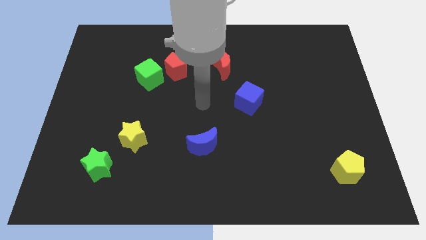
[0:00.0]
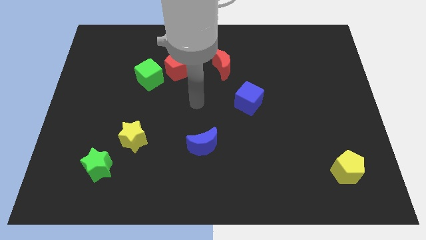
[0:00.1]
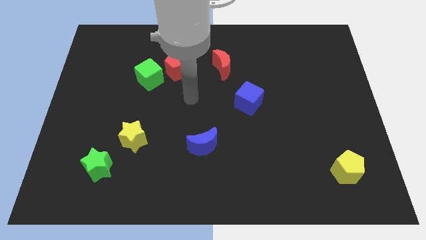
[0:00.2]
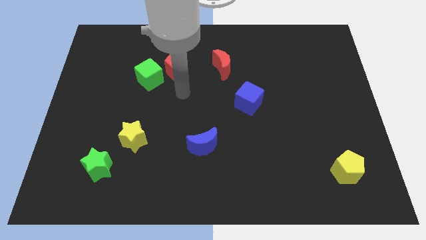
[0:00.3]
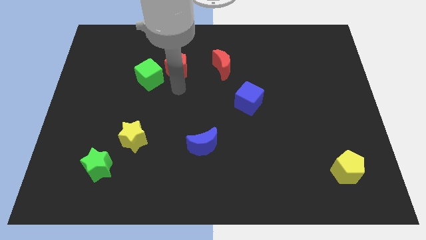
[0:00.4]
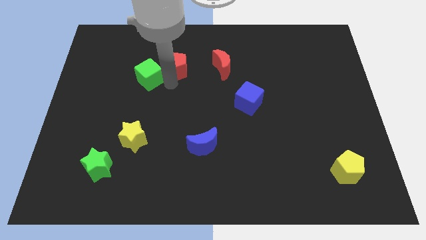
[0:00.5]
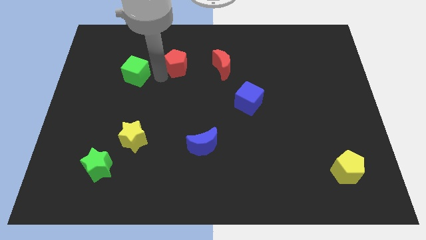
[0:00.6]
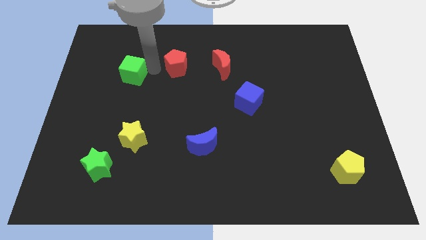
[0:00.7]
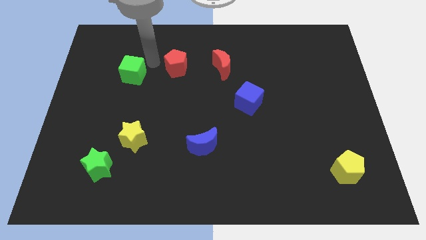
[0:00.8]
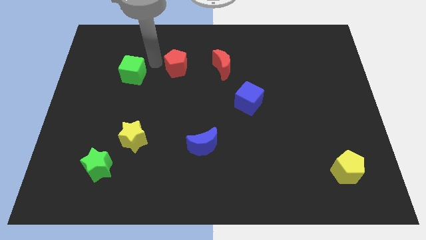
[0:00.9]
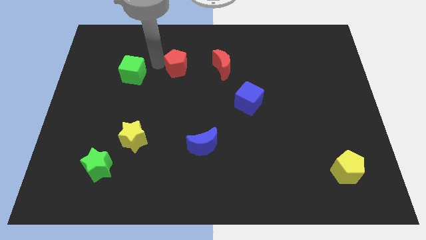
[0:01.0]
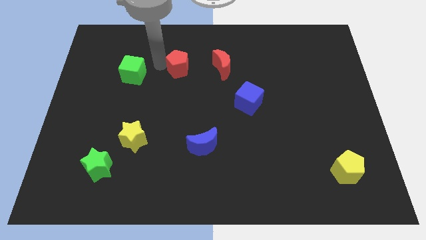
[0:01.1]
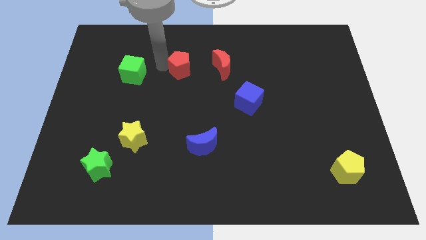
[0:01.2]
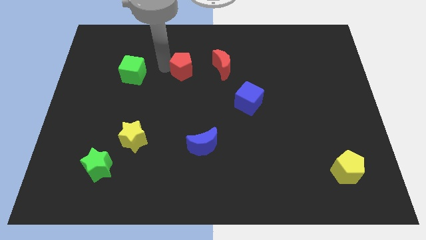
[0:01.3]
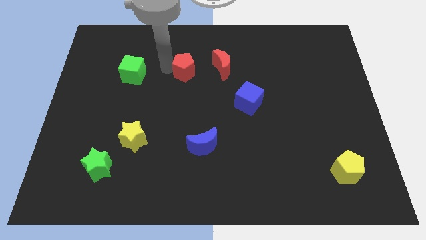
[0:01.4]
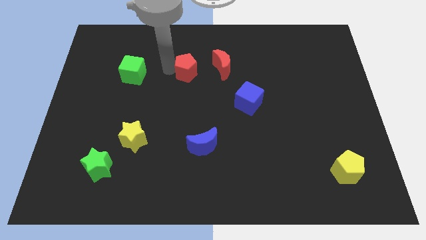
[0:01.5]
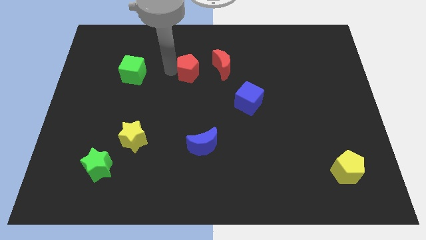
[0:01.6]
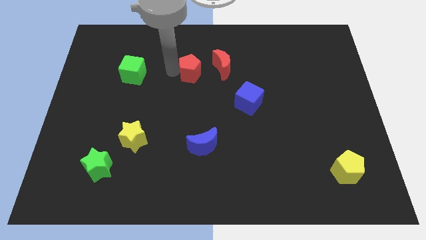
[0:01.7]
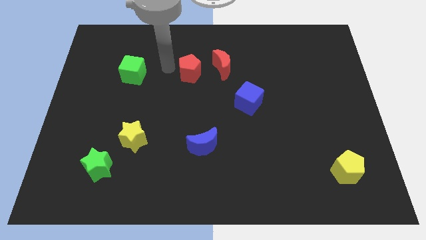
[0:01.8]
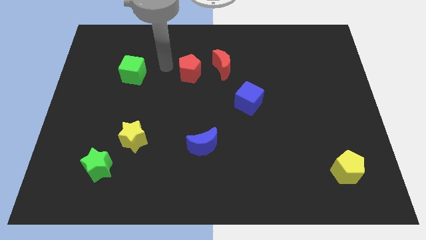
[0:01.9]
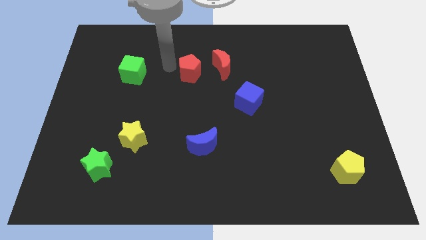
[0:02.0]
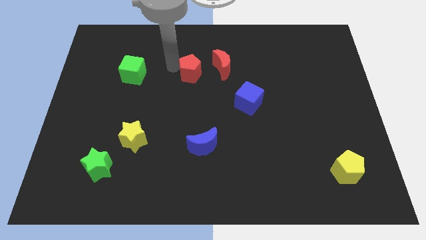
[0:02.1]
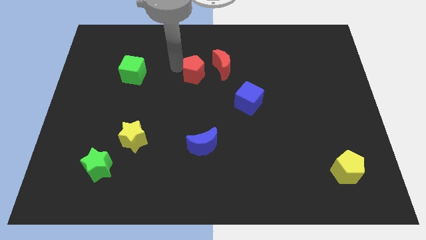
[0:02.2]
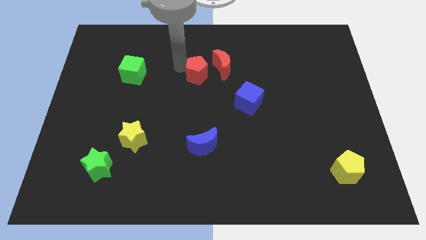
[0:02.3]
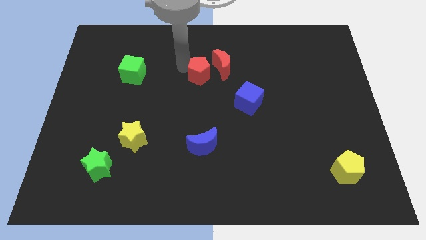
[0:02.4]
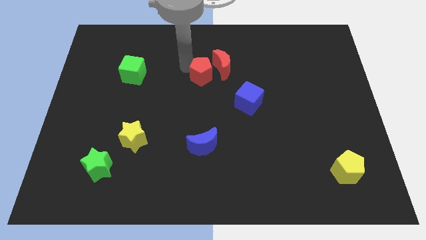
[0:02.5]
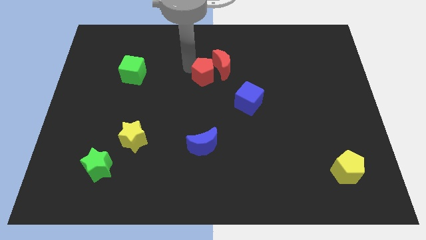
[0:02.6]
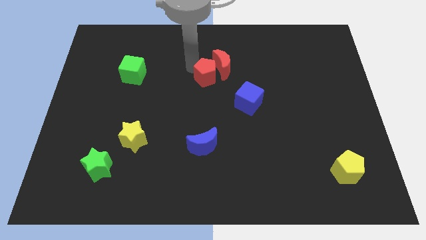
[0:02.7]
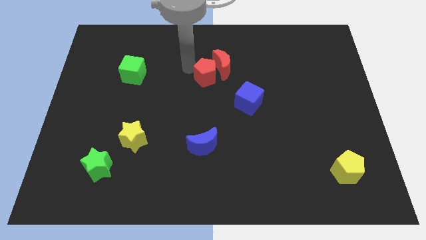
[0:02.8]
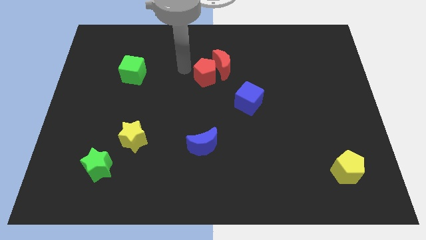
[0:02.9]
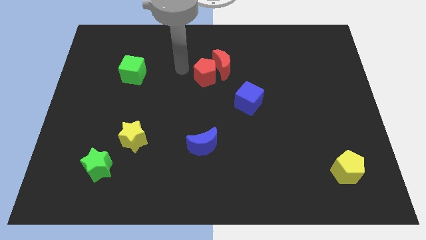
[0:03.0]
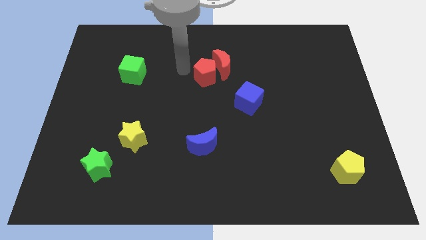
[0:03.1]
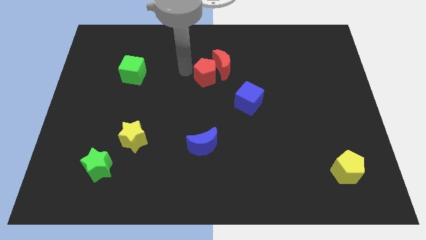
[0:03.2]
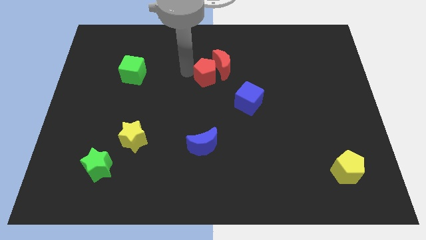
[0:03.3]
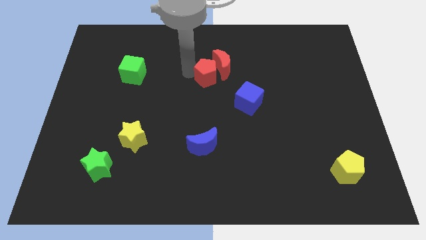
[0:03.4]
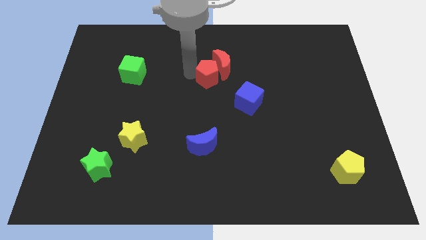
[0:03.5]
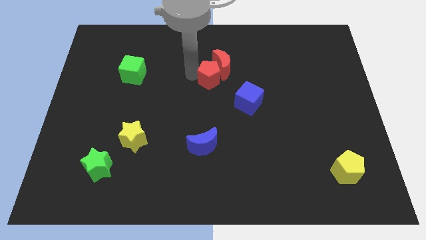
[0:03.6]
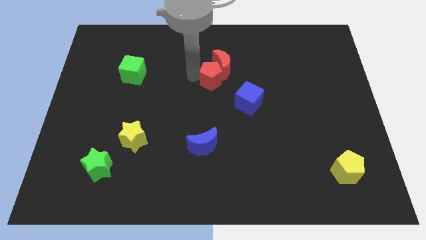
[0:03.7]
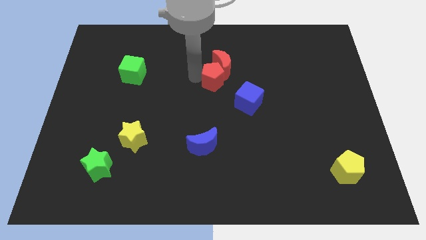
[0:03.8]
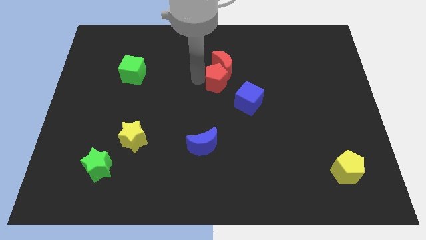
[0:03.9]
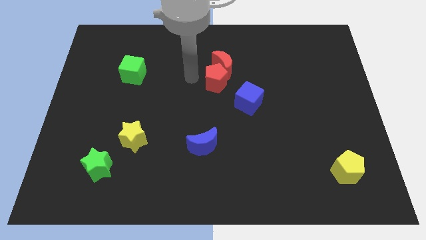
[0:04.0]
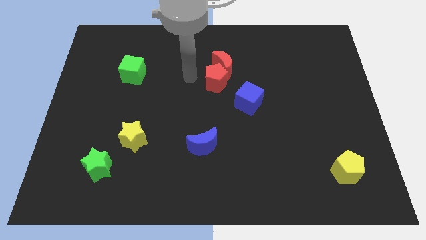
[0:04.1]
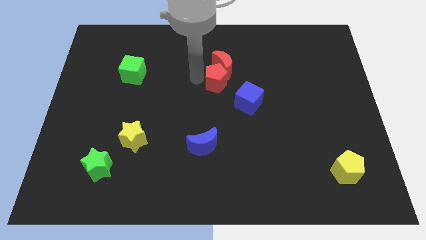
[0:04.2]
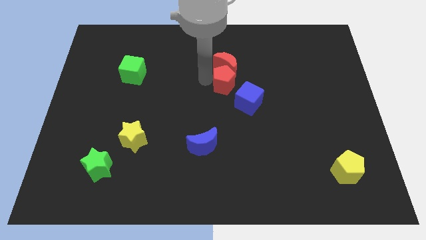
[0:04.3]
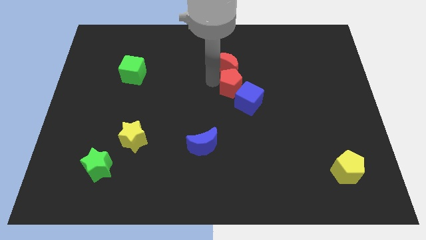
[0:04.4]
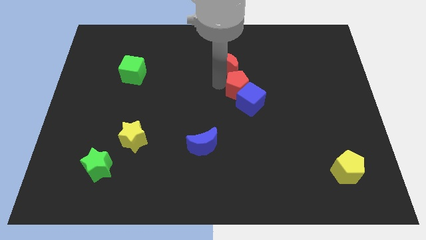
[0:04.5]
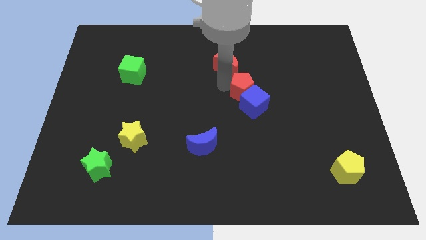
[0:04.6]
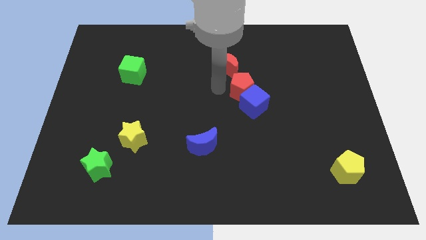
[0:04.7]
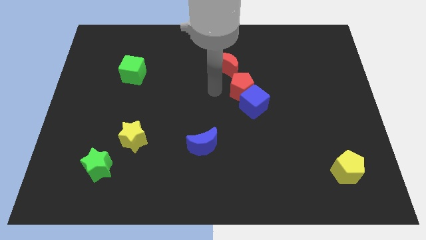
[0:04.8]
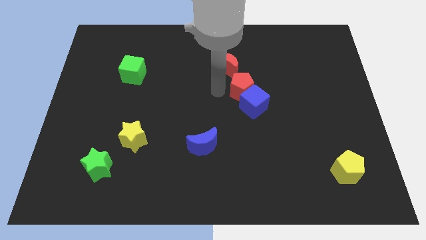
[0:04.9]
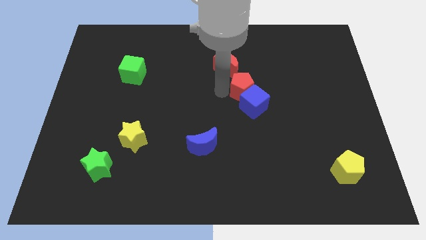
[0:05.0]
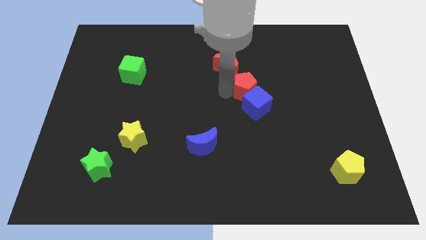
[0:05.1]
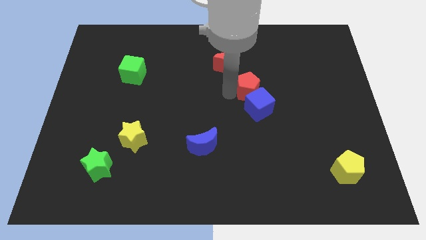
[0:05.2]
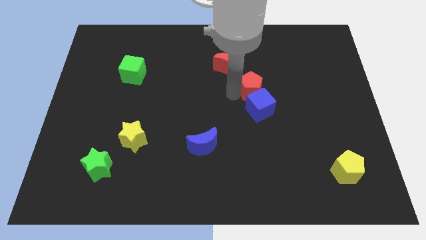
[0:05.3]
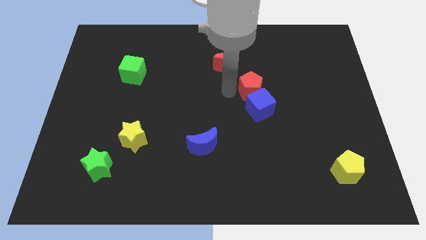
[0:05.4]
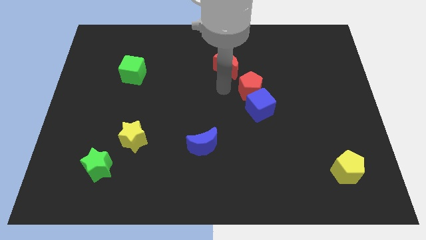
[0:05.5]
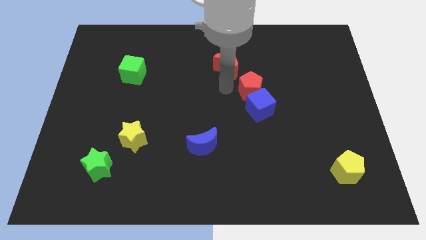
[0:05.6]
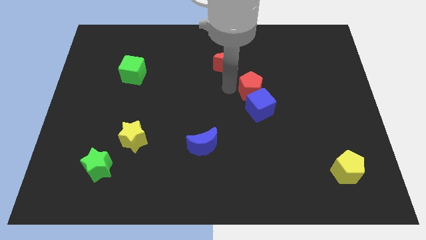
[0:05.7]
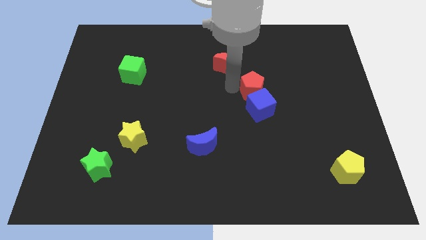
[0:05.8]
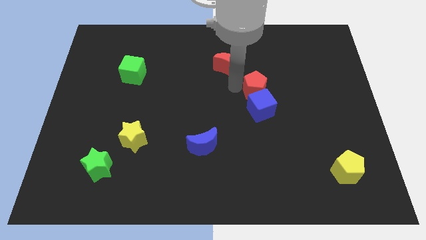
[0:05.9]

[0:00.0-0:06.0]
slide the red pentagon diagonally up and to the right of the blue cube

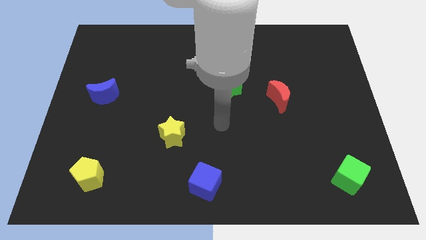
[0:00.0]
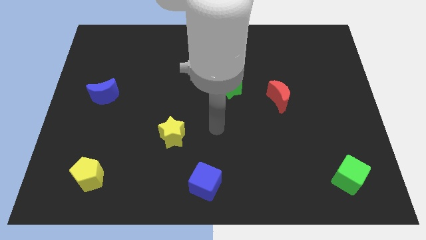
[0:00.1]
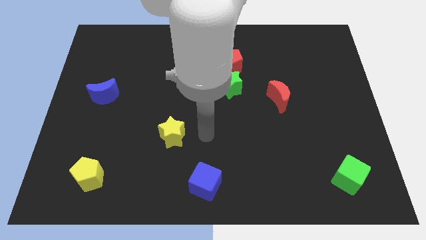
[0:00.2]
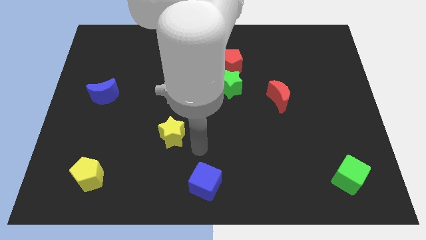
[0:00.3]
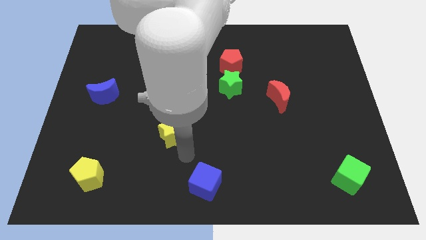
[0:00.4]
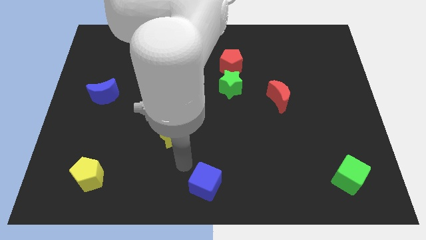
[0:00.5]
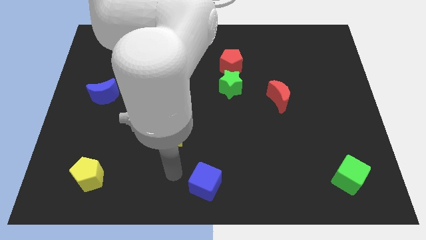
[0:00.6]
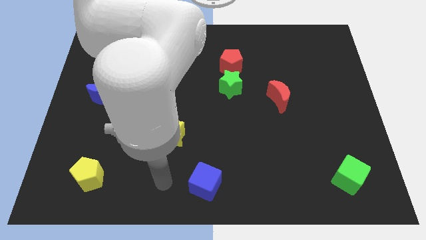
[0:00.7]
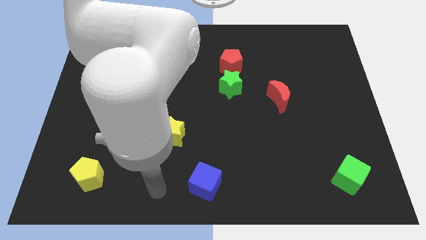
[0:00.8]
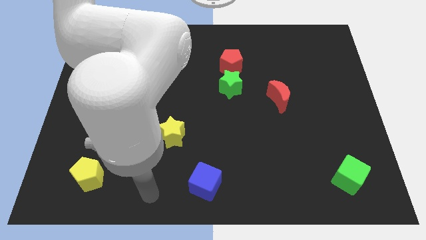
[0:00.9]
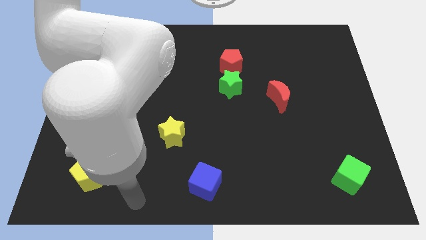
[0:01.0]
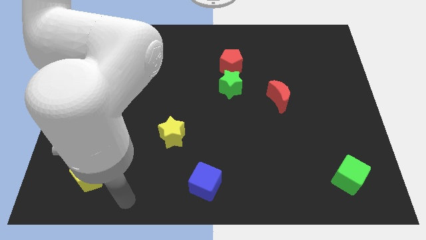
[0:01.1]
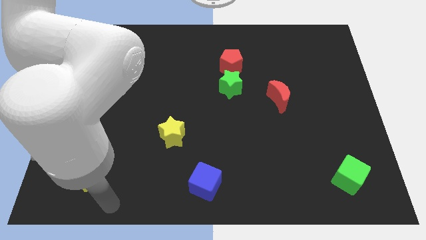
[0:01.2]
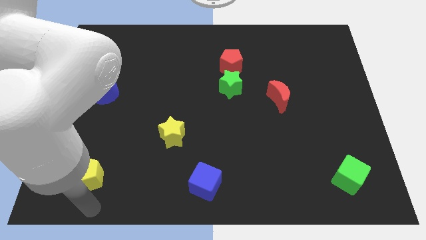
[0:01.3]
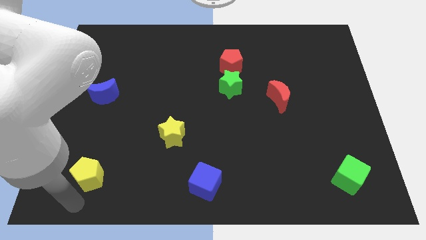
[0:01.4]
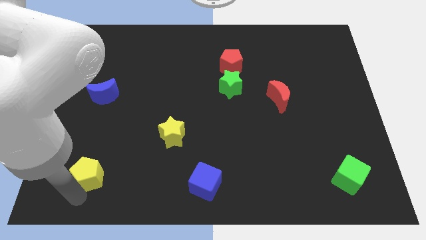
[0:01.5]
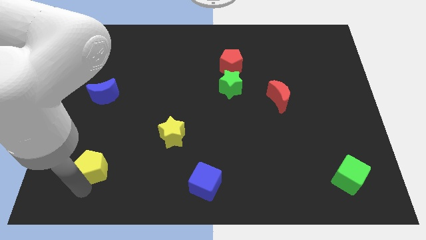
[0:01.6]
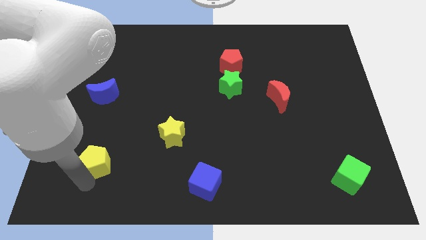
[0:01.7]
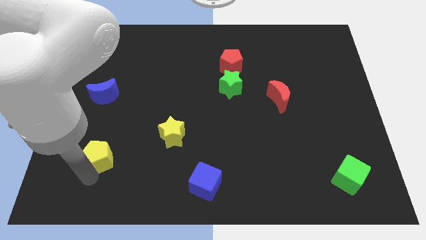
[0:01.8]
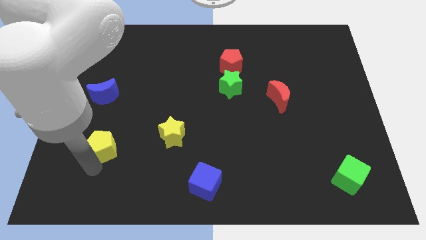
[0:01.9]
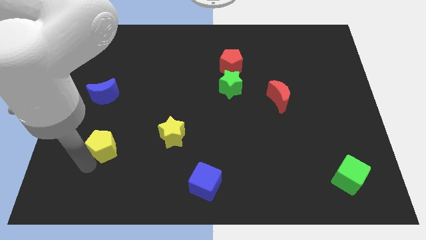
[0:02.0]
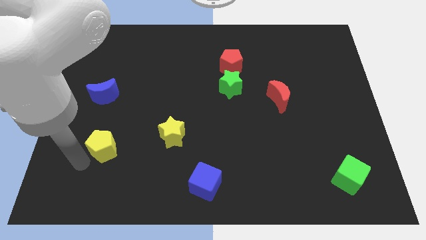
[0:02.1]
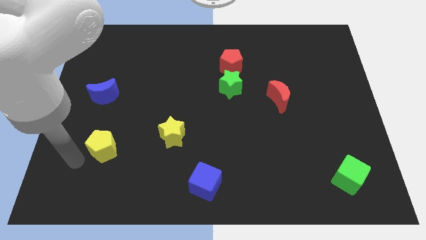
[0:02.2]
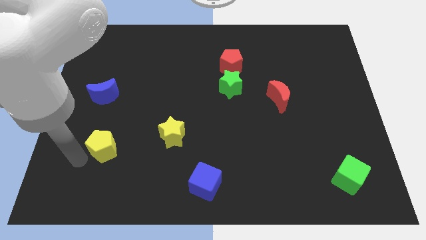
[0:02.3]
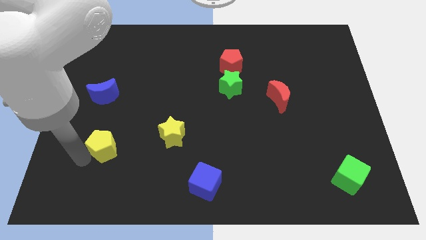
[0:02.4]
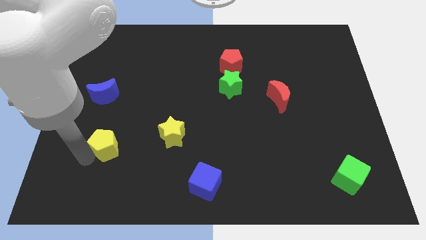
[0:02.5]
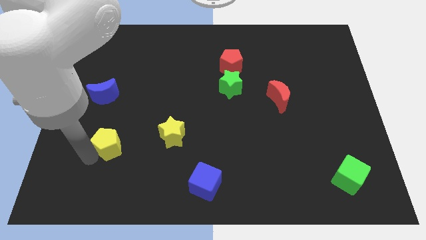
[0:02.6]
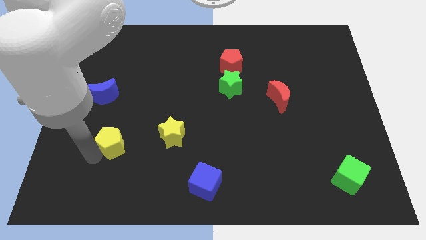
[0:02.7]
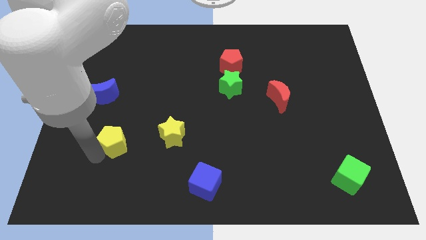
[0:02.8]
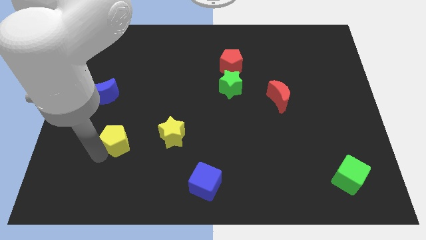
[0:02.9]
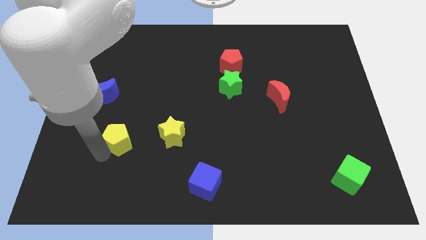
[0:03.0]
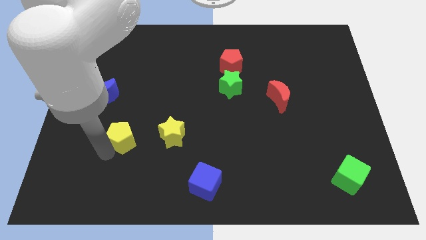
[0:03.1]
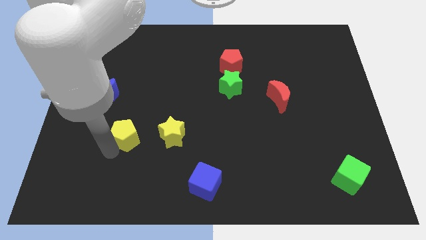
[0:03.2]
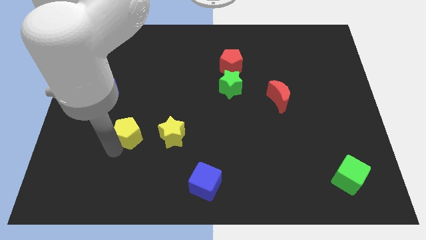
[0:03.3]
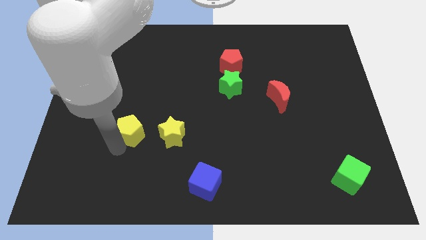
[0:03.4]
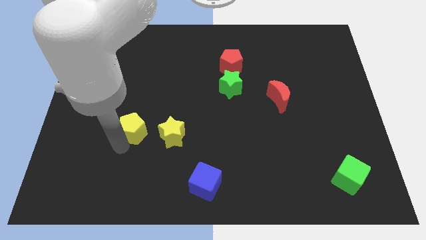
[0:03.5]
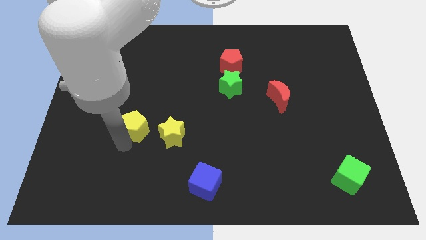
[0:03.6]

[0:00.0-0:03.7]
put the yellow pentagon to the top left of the yellow star
